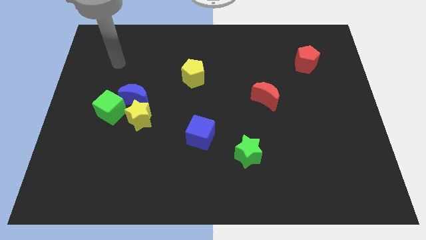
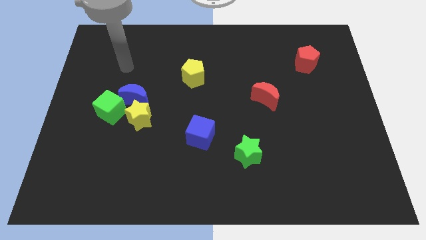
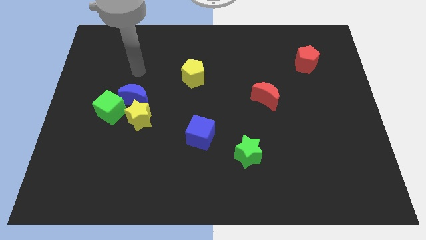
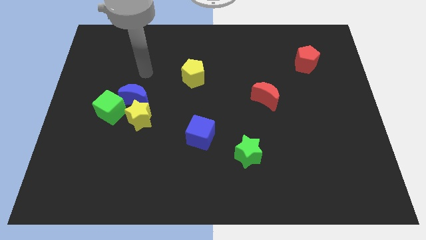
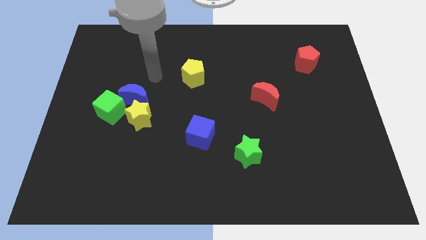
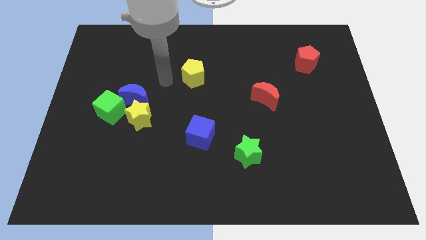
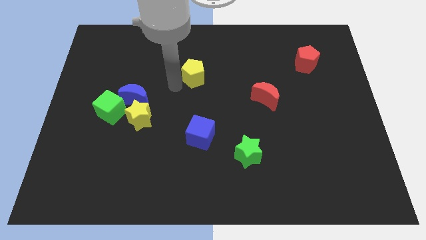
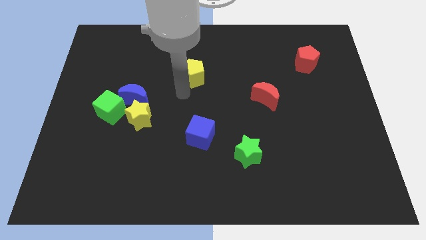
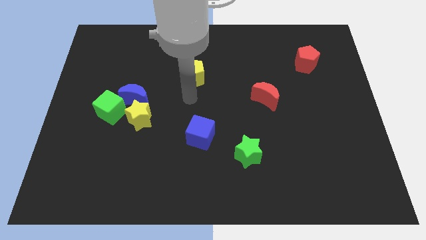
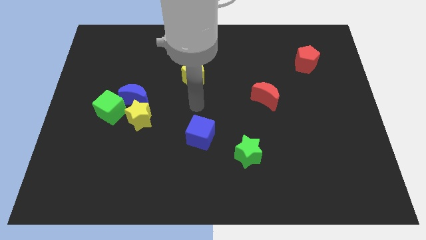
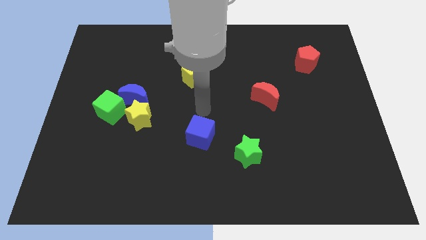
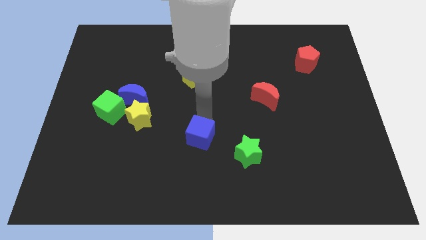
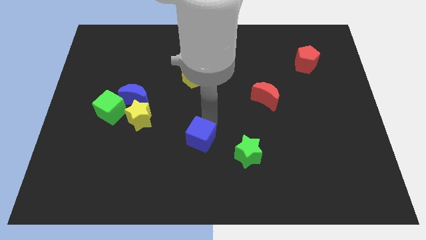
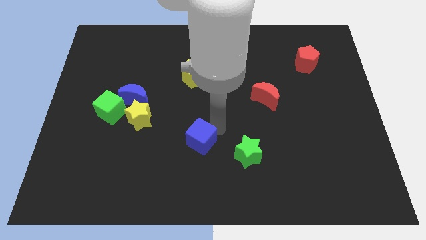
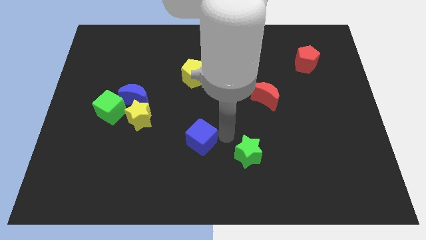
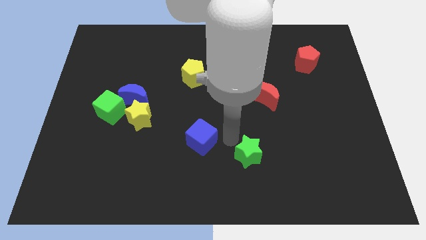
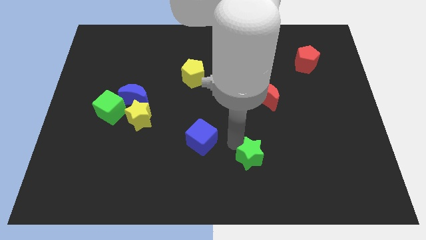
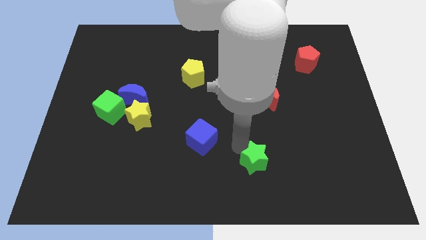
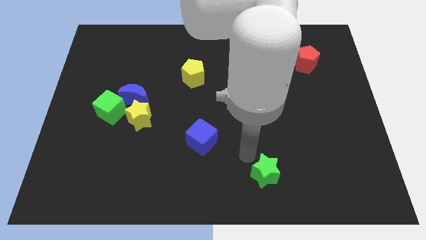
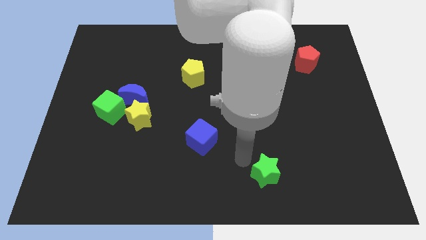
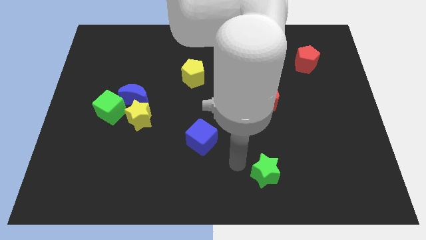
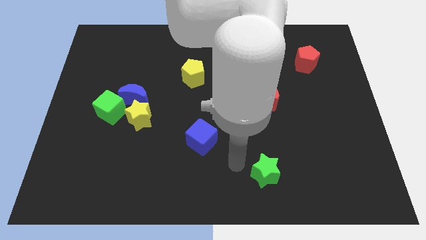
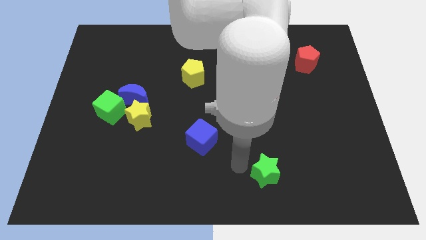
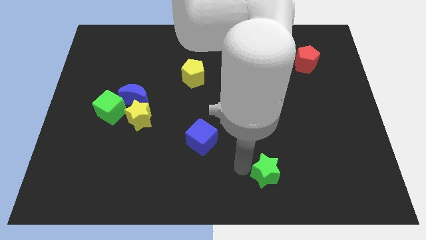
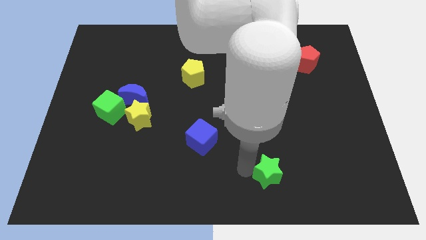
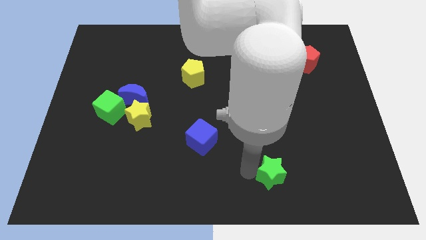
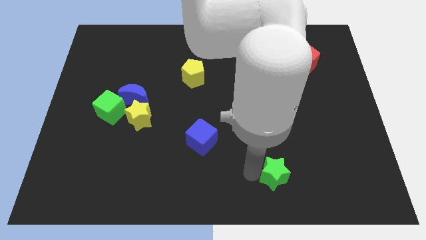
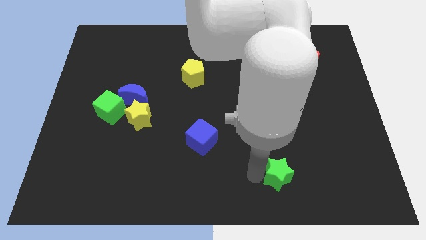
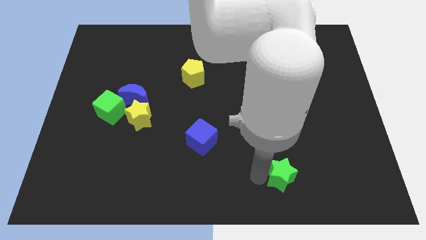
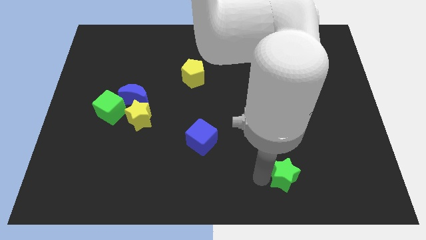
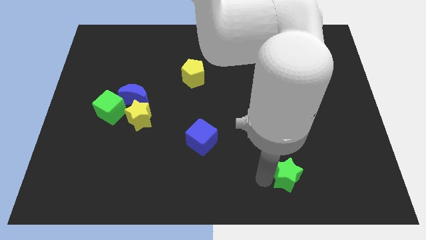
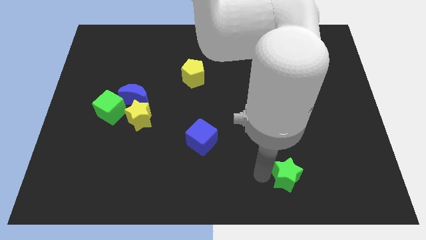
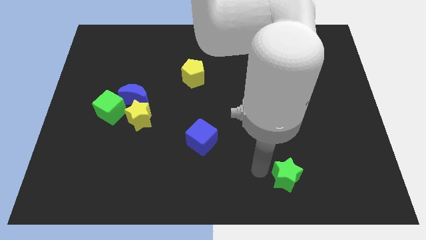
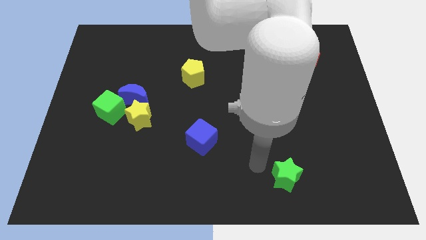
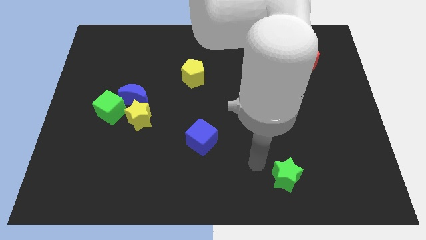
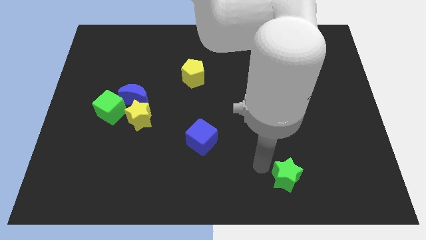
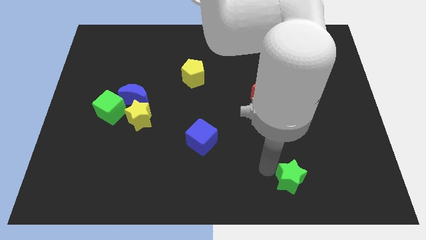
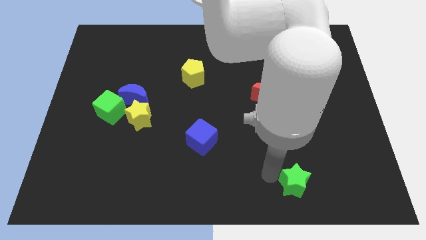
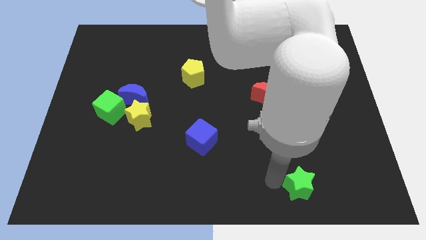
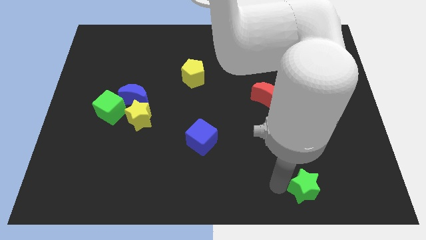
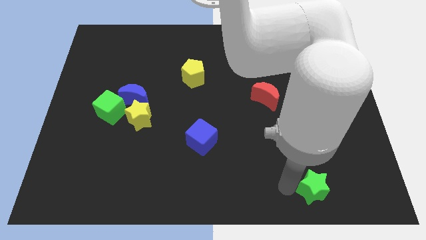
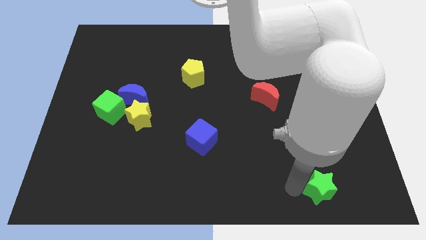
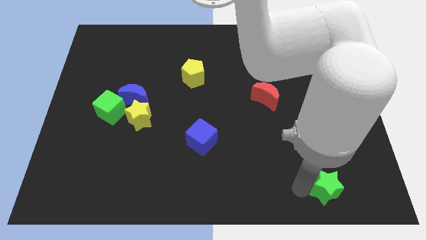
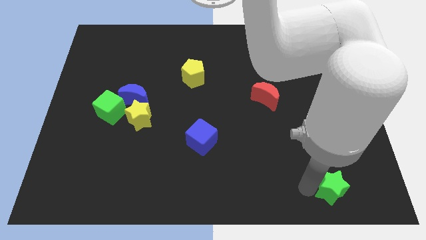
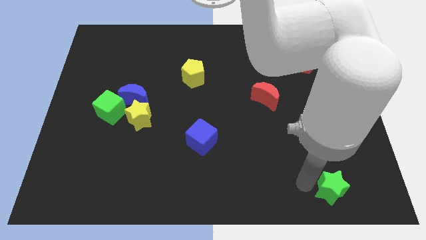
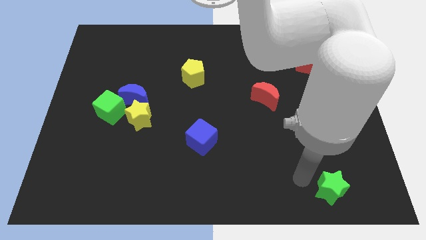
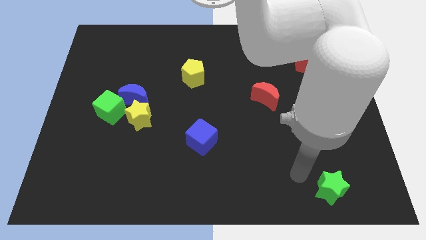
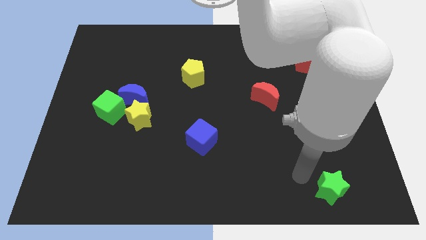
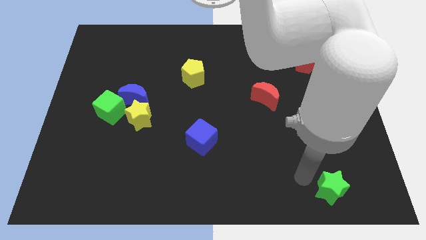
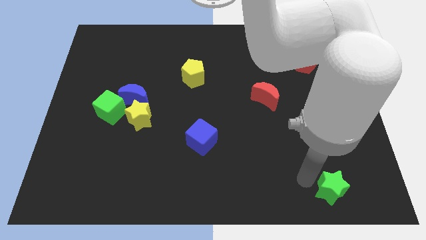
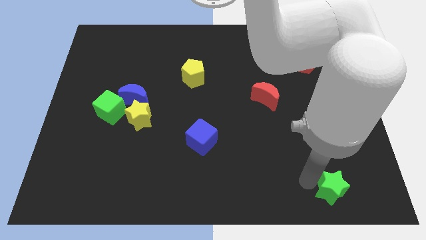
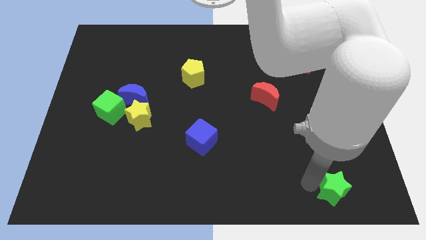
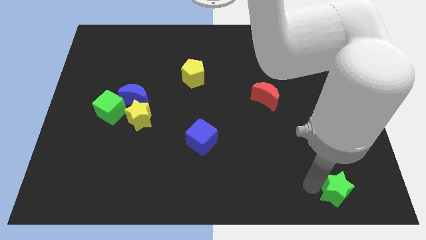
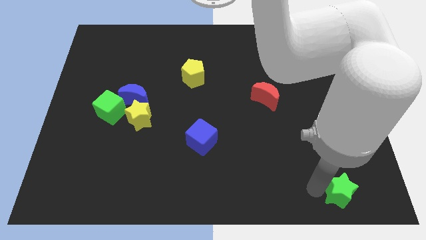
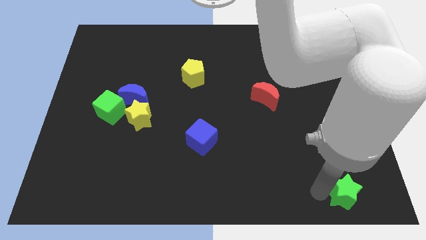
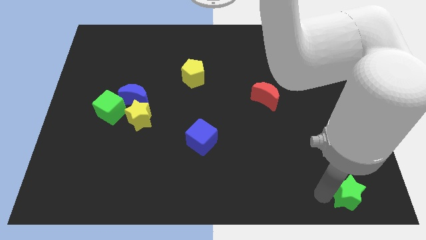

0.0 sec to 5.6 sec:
put the green star to the bottom right

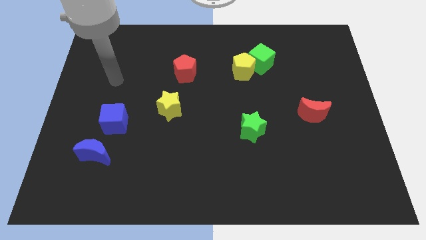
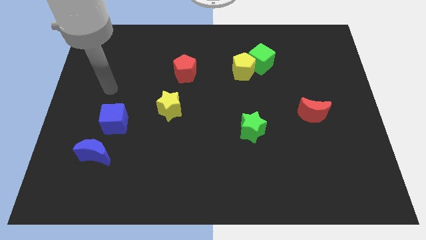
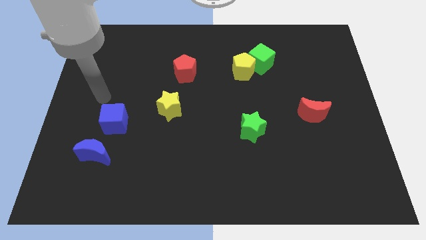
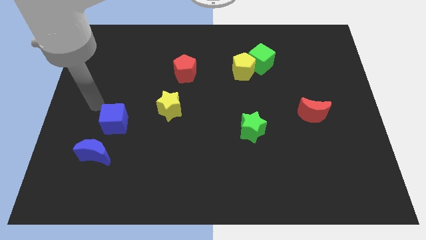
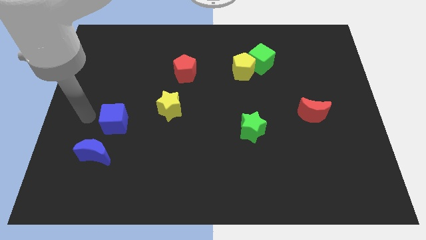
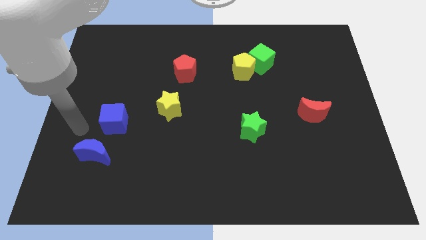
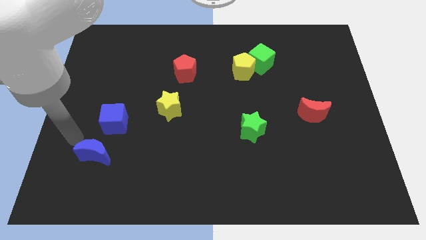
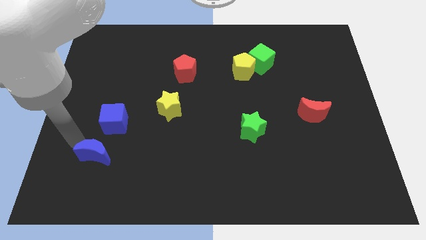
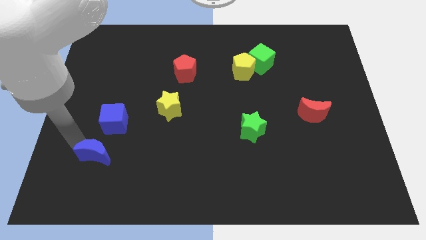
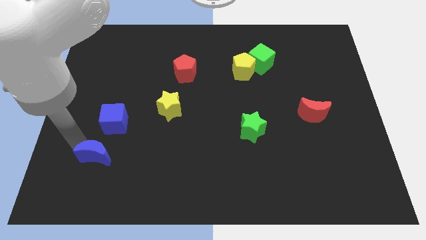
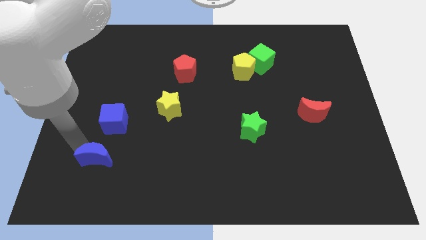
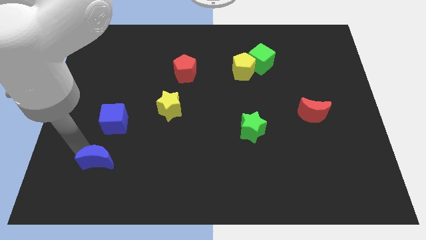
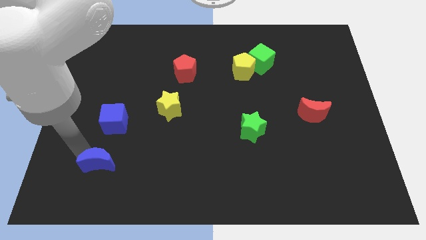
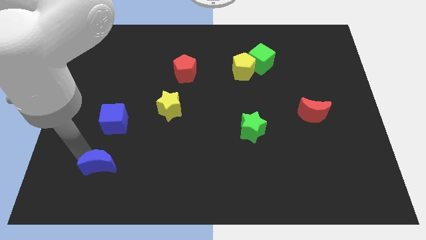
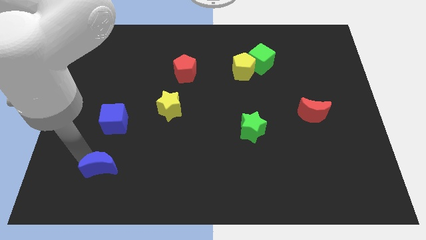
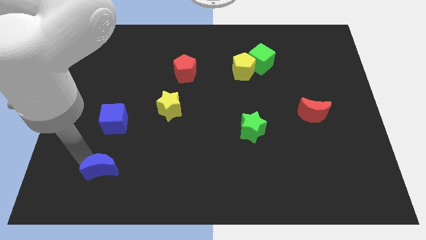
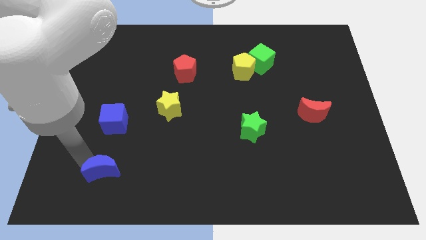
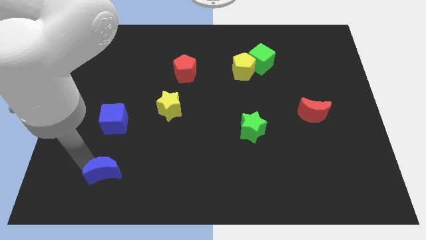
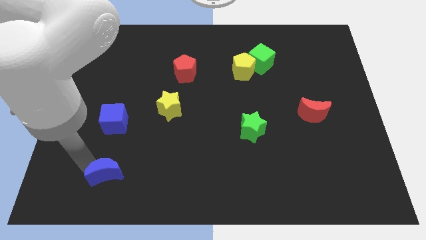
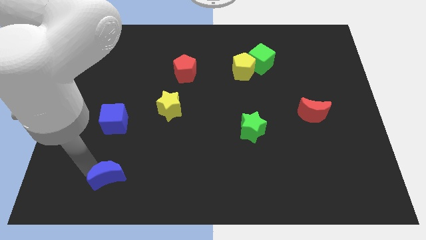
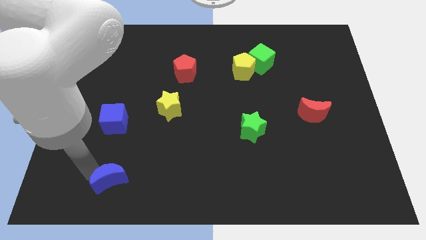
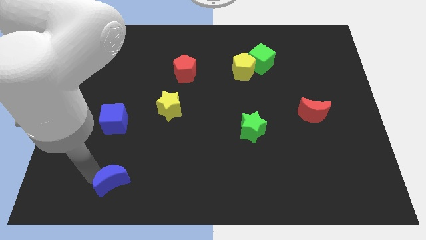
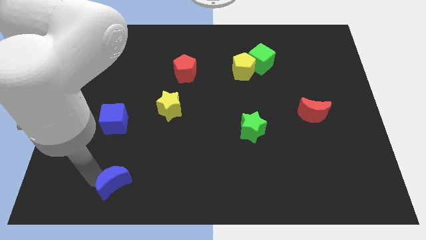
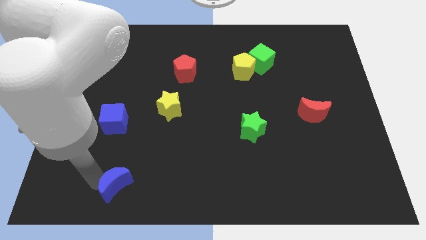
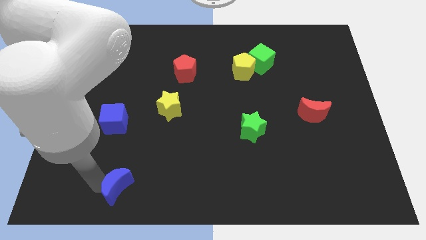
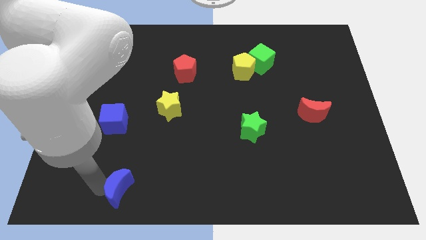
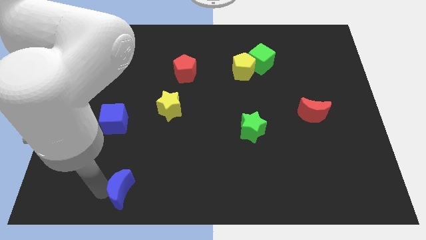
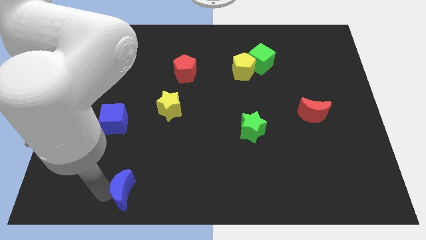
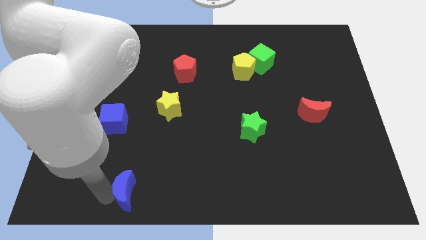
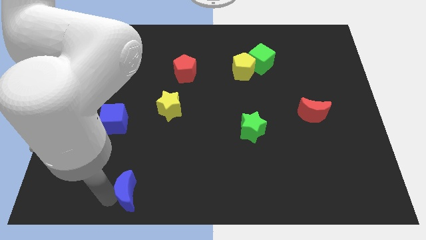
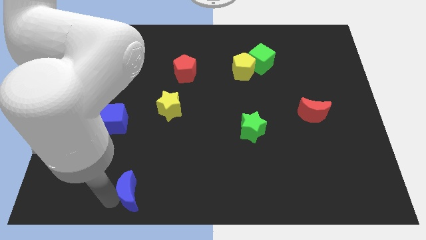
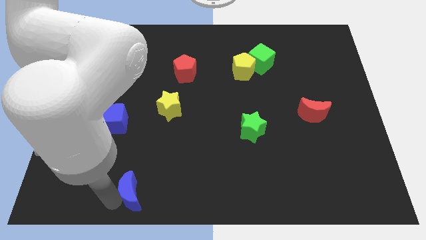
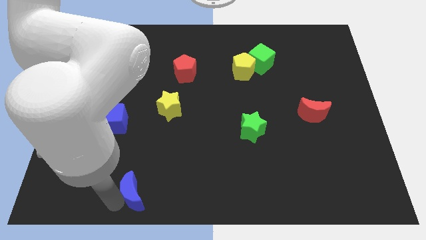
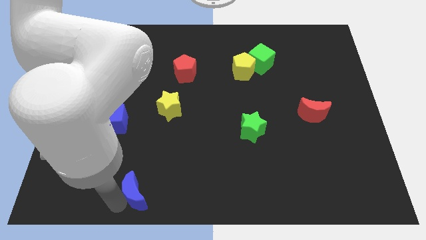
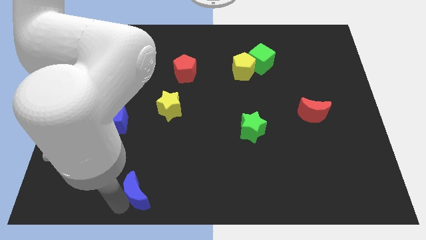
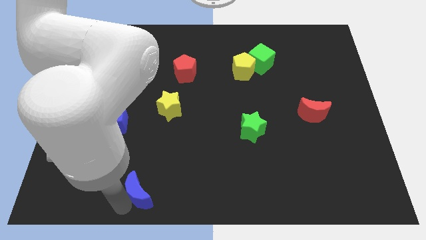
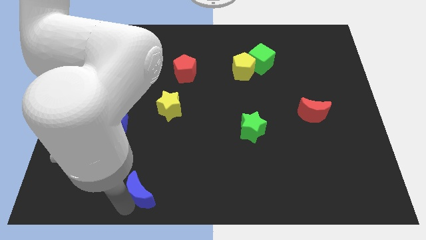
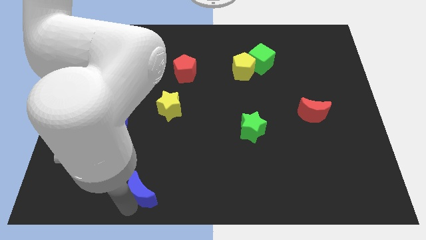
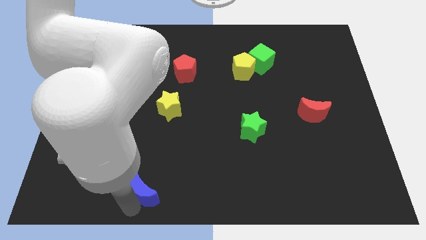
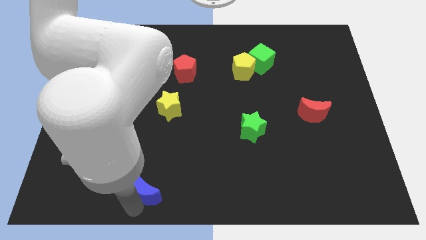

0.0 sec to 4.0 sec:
put the blue moon to the bottom side
